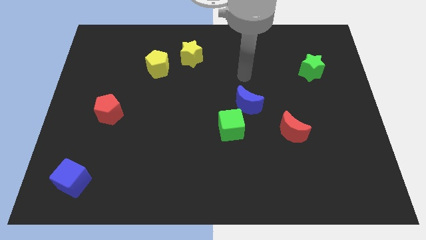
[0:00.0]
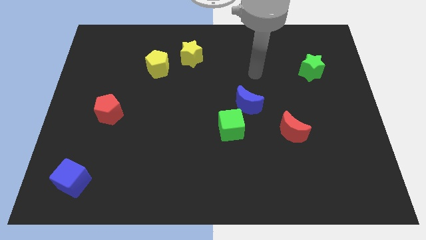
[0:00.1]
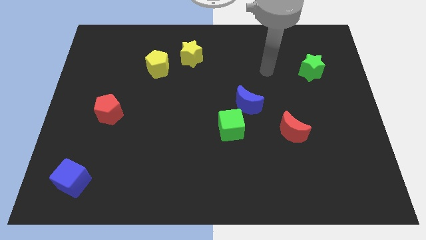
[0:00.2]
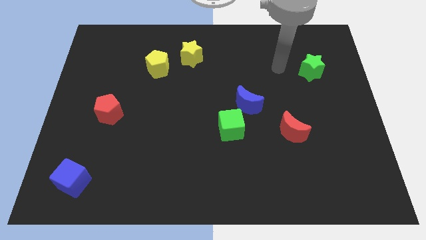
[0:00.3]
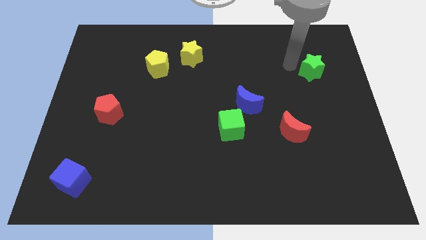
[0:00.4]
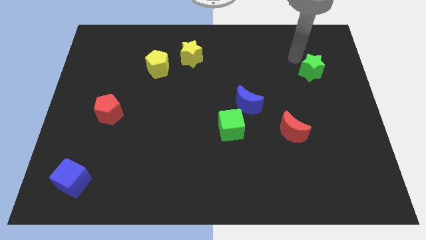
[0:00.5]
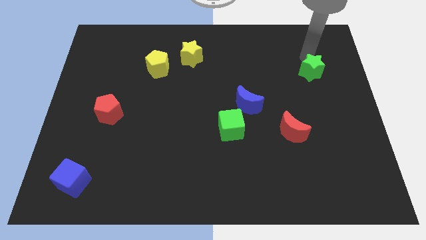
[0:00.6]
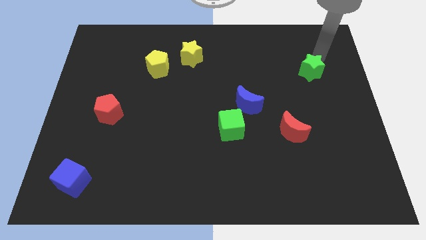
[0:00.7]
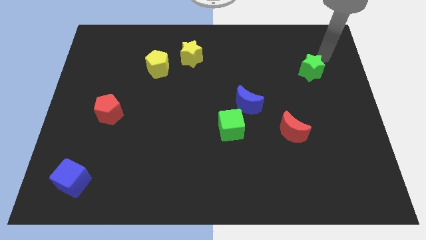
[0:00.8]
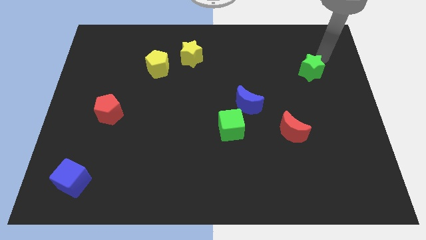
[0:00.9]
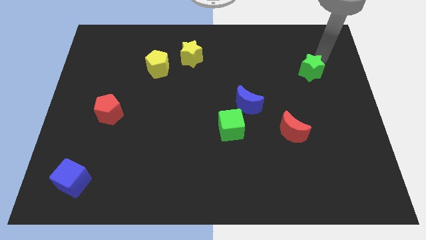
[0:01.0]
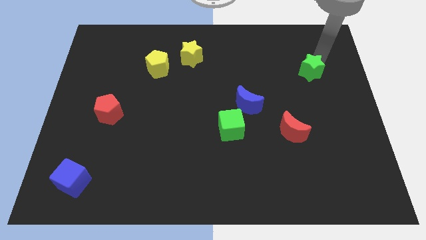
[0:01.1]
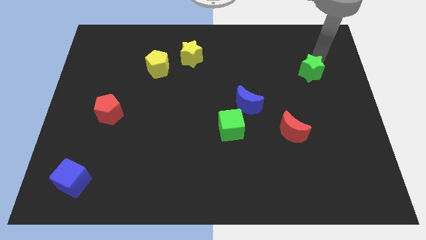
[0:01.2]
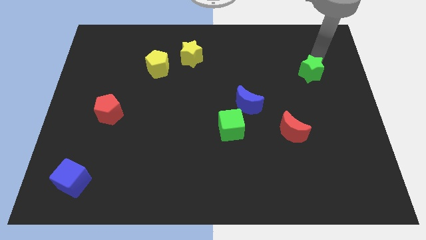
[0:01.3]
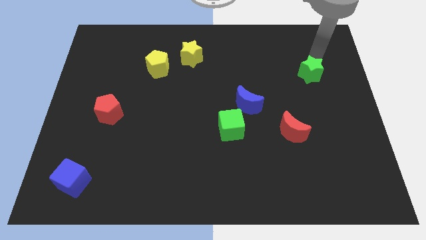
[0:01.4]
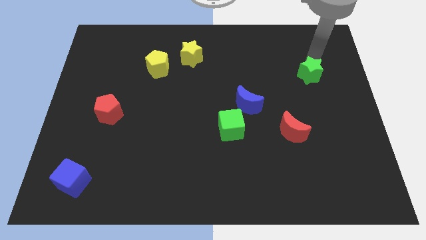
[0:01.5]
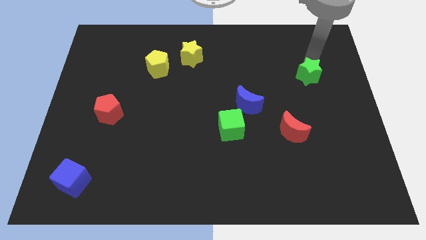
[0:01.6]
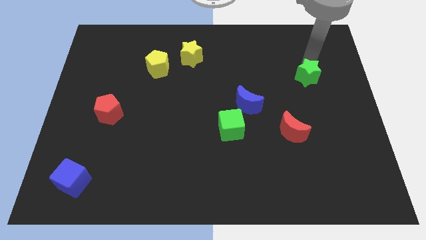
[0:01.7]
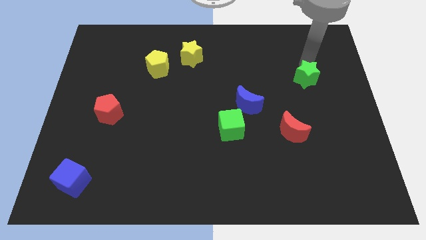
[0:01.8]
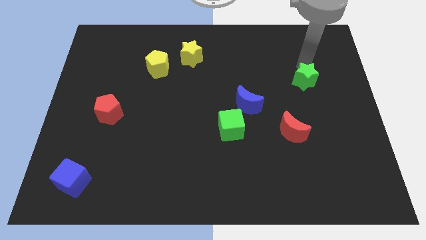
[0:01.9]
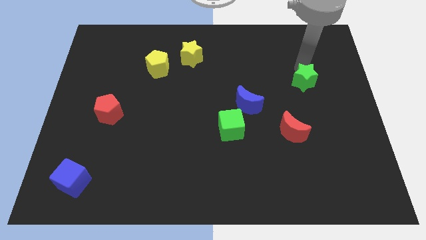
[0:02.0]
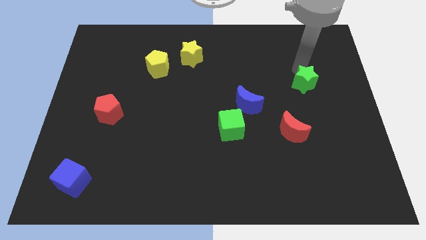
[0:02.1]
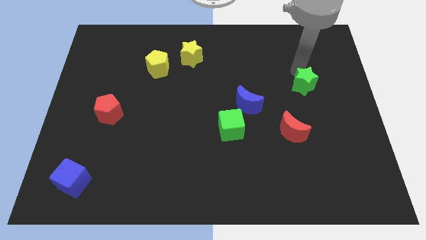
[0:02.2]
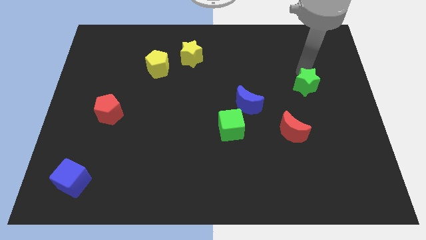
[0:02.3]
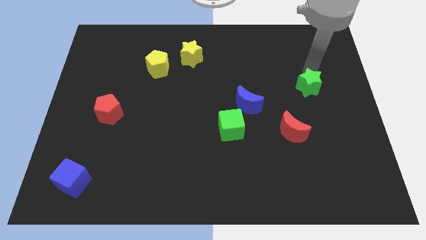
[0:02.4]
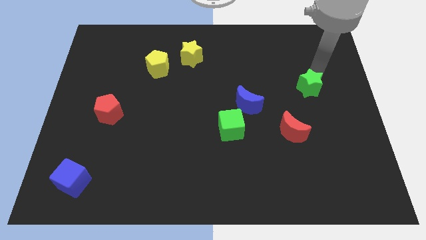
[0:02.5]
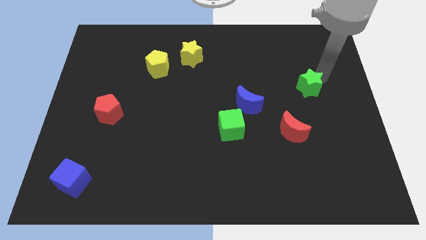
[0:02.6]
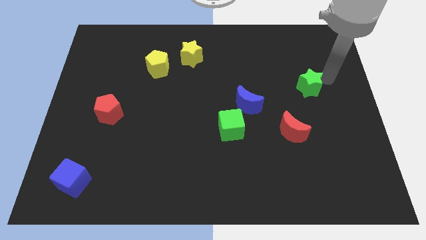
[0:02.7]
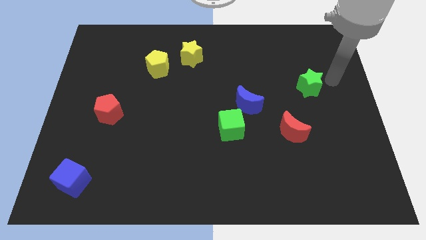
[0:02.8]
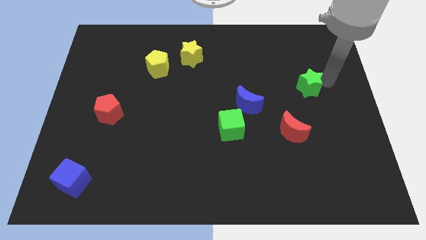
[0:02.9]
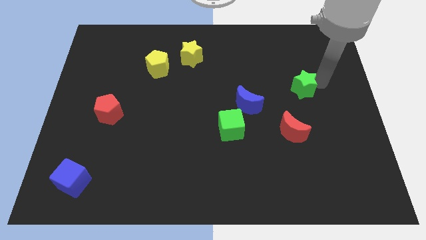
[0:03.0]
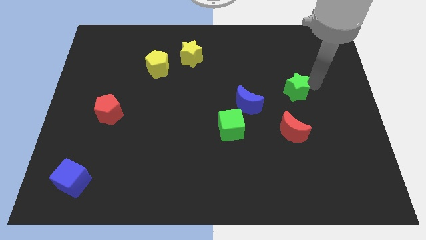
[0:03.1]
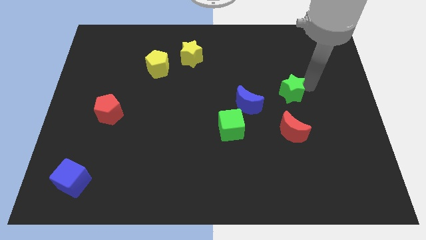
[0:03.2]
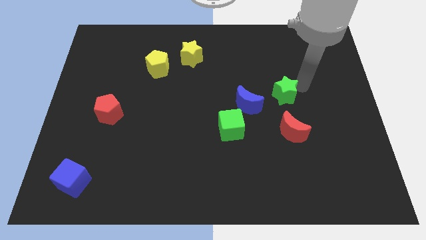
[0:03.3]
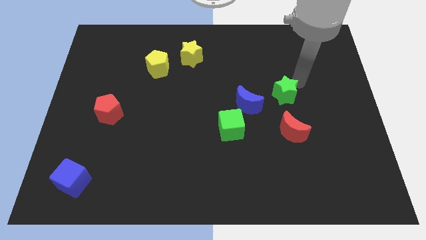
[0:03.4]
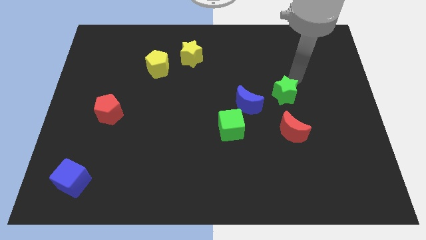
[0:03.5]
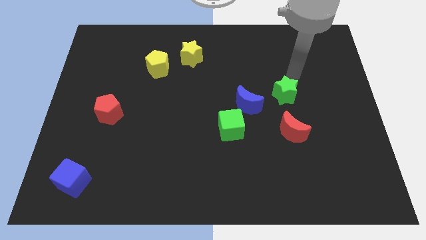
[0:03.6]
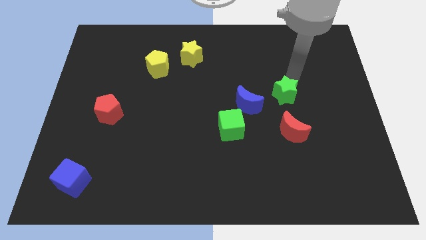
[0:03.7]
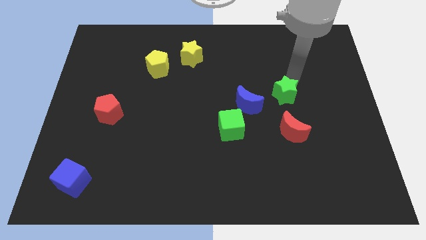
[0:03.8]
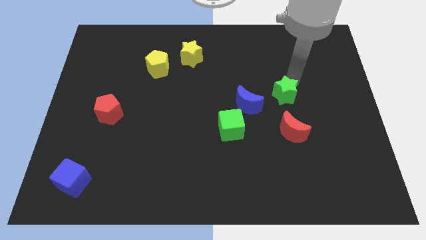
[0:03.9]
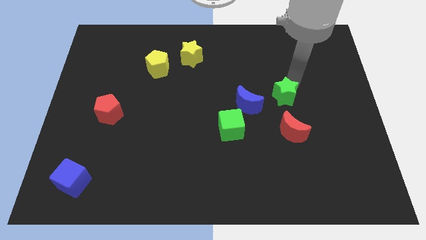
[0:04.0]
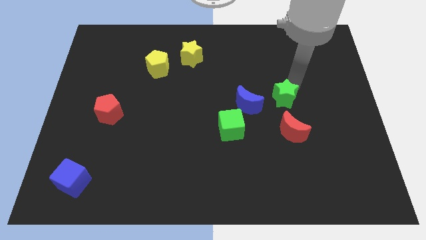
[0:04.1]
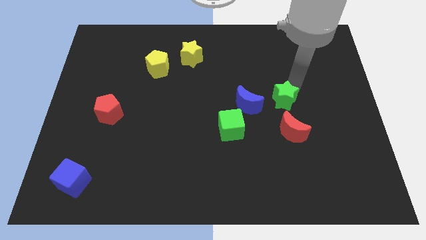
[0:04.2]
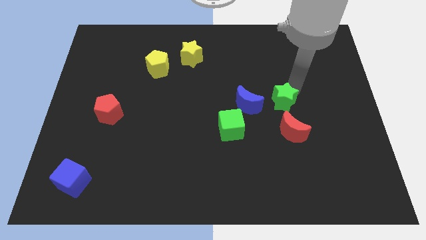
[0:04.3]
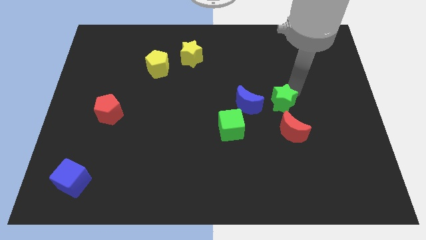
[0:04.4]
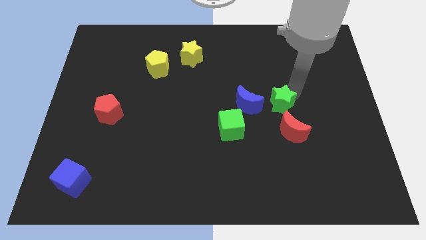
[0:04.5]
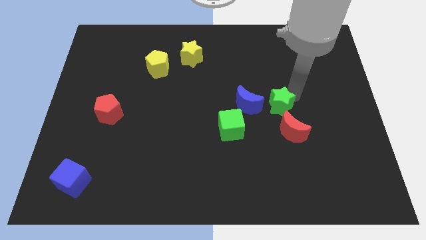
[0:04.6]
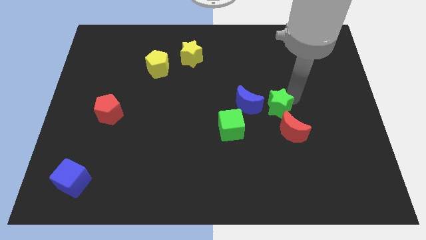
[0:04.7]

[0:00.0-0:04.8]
put the green star to the bottom right side of the blue moon

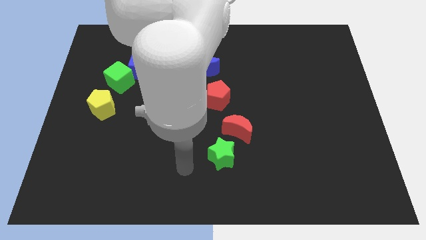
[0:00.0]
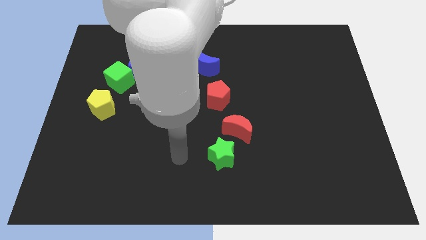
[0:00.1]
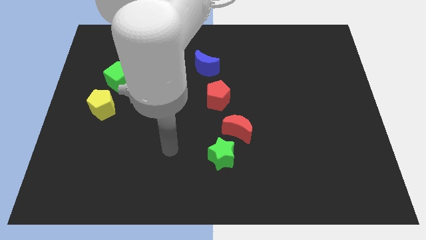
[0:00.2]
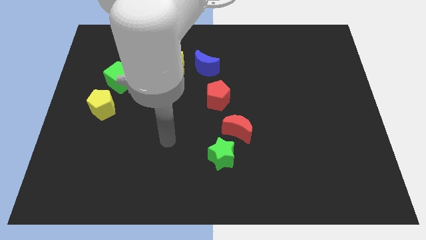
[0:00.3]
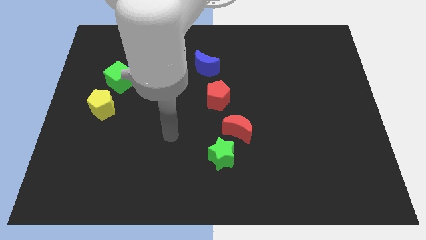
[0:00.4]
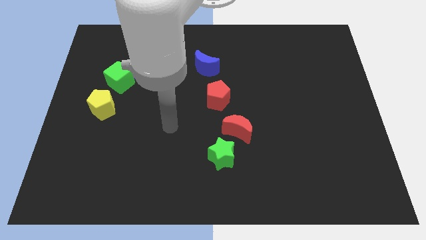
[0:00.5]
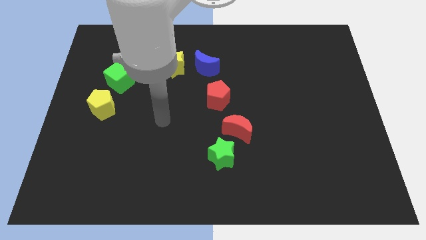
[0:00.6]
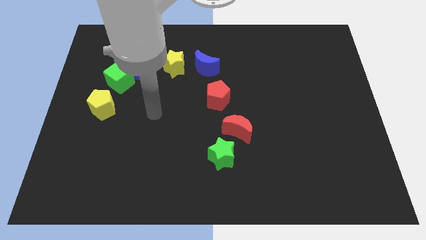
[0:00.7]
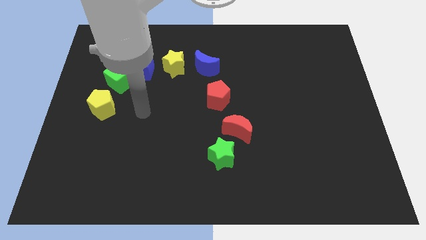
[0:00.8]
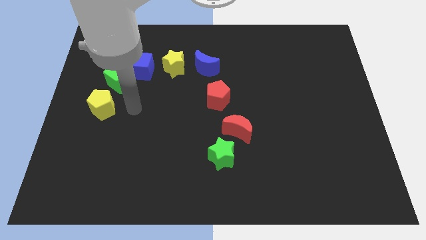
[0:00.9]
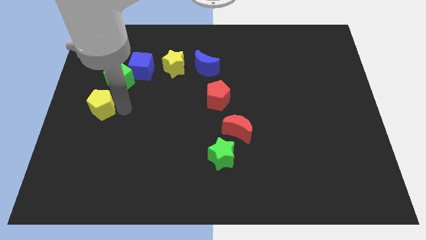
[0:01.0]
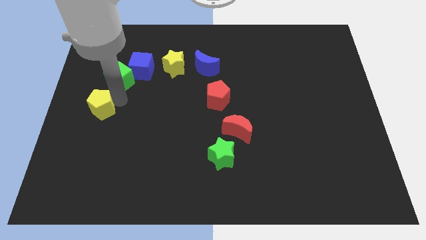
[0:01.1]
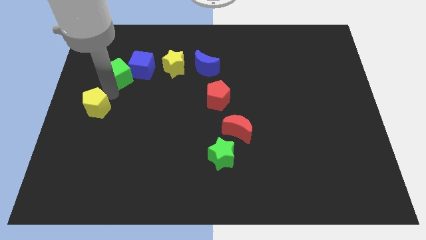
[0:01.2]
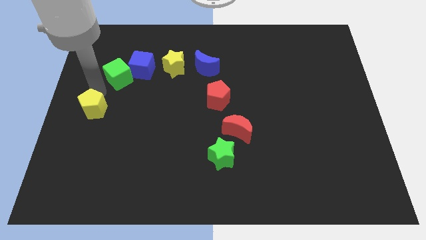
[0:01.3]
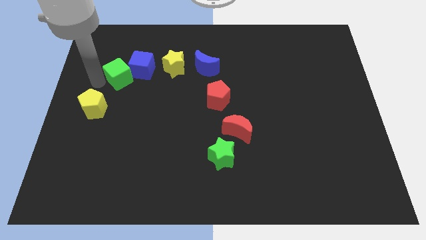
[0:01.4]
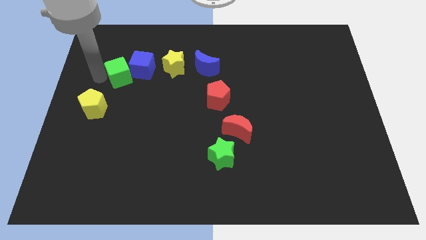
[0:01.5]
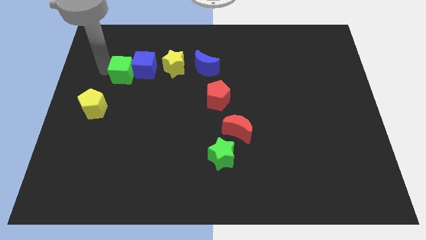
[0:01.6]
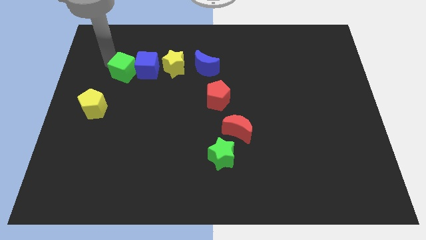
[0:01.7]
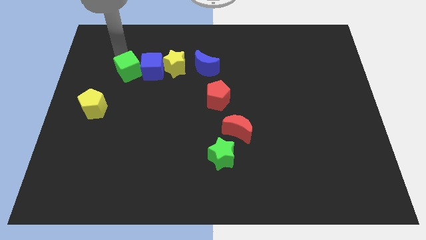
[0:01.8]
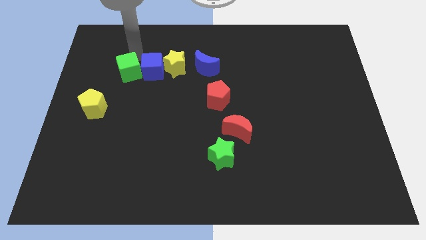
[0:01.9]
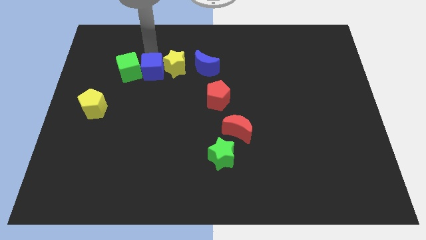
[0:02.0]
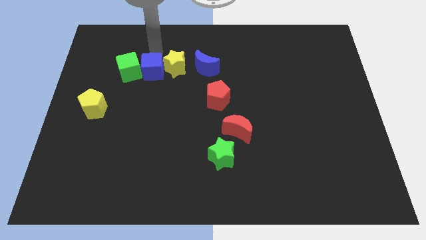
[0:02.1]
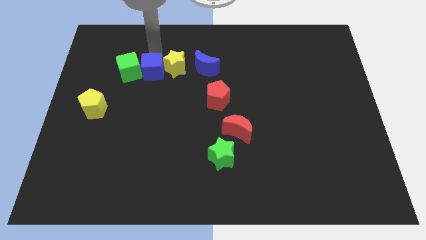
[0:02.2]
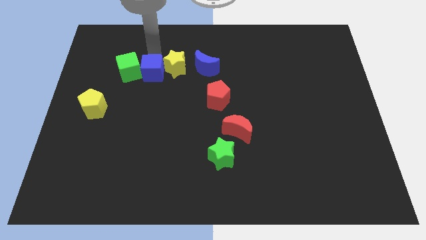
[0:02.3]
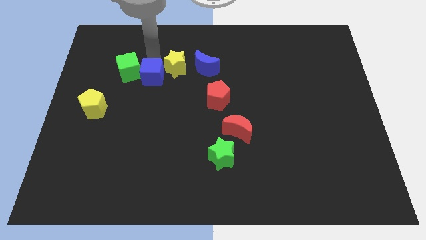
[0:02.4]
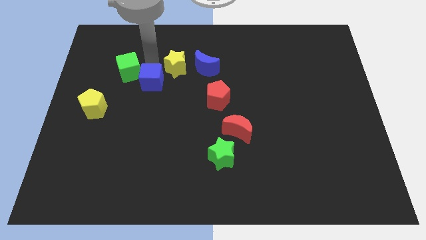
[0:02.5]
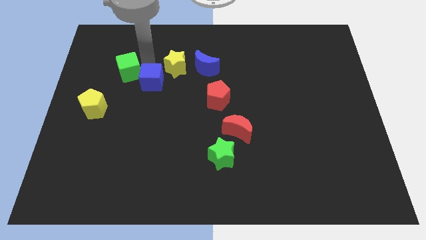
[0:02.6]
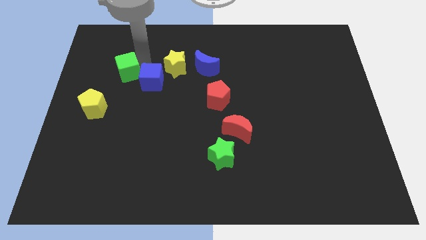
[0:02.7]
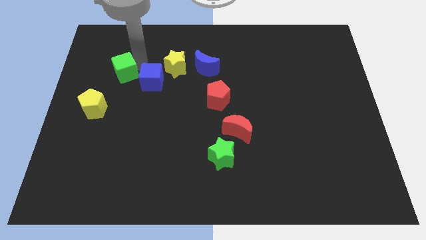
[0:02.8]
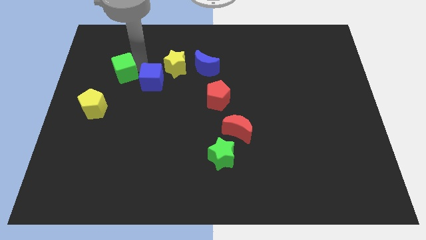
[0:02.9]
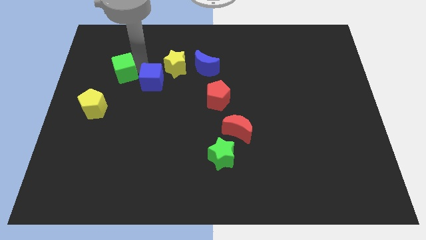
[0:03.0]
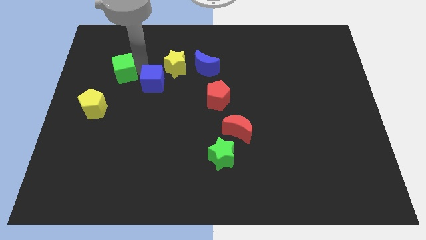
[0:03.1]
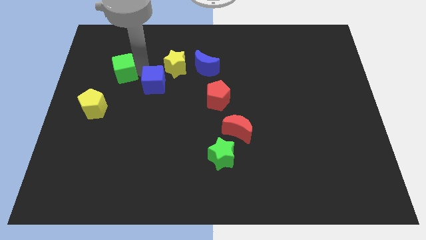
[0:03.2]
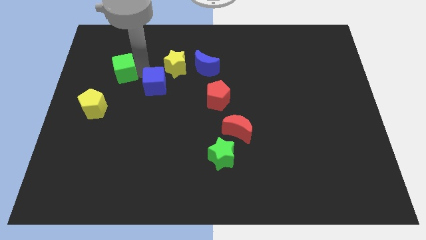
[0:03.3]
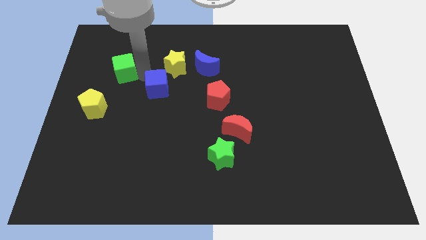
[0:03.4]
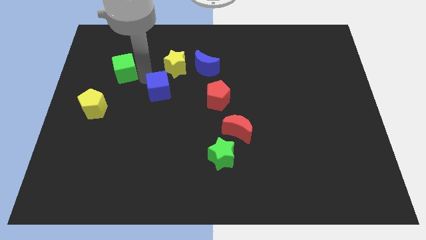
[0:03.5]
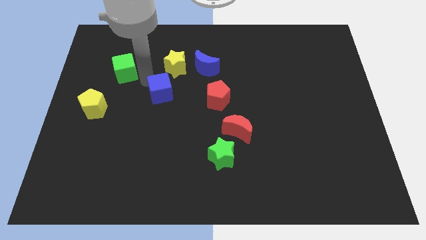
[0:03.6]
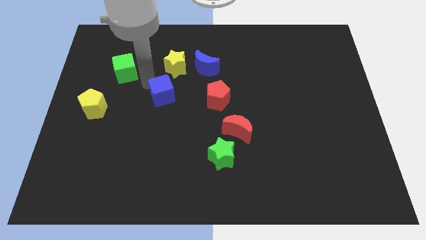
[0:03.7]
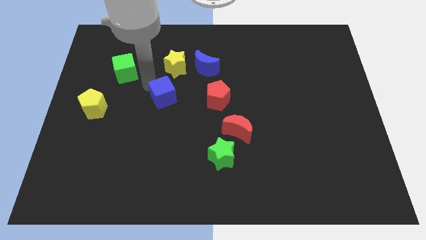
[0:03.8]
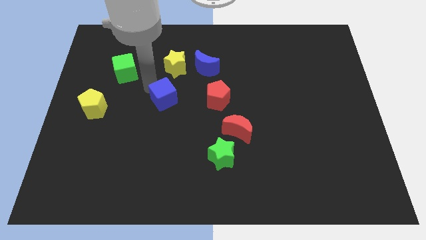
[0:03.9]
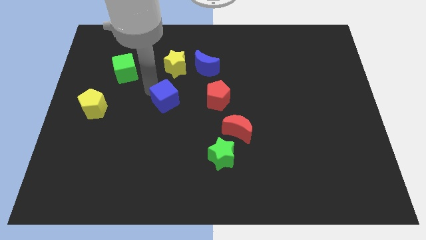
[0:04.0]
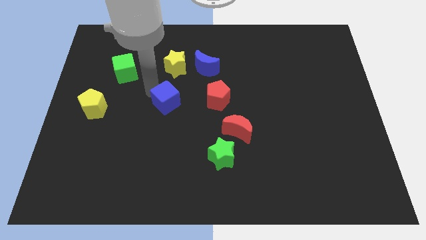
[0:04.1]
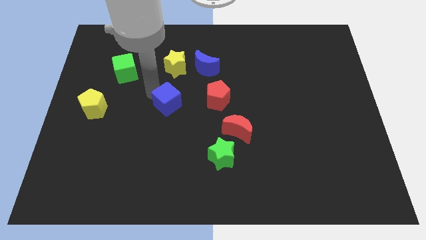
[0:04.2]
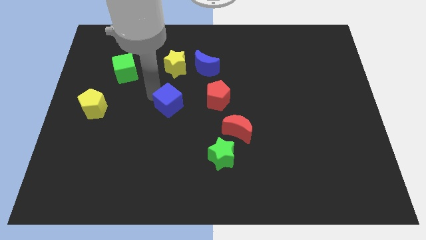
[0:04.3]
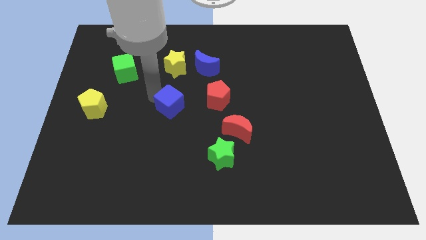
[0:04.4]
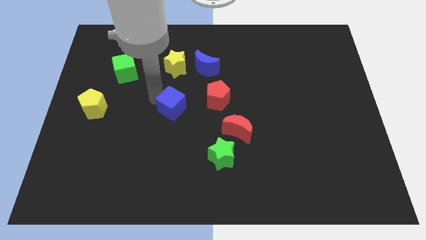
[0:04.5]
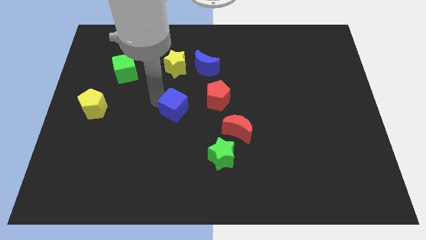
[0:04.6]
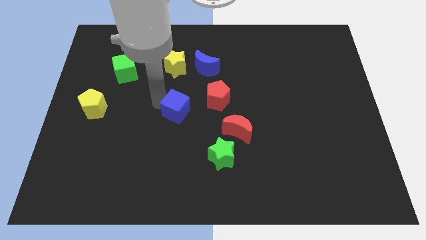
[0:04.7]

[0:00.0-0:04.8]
move the blue cube to the bottom left of the red pentagon
